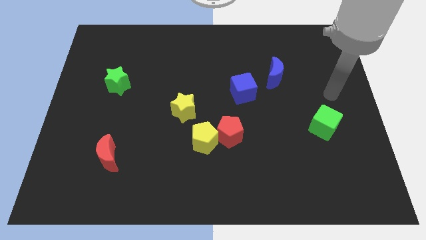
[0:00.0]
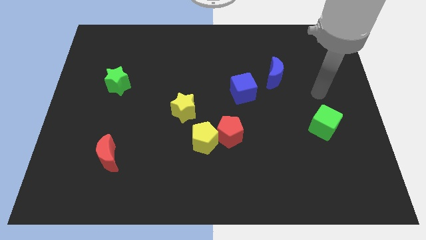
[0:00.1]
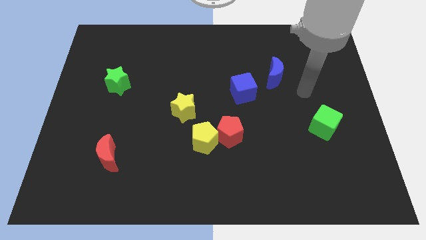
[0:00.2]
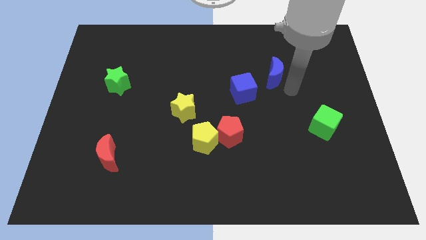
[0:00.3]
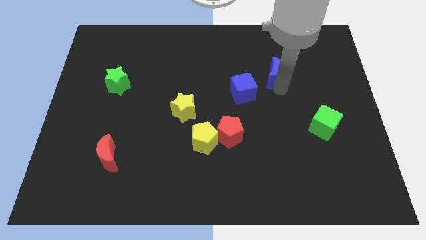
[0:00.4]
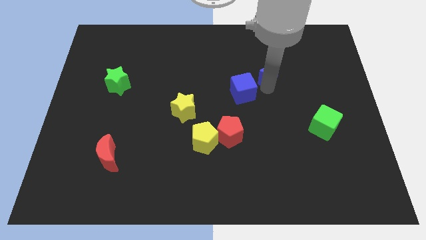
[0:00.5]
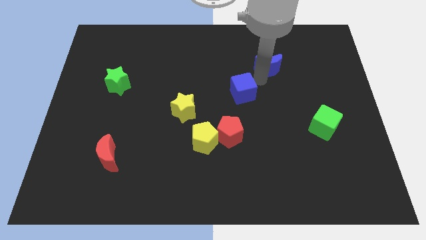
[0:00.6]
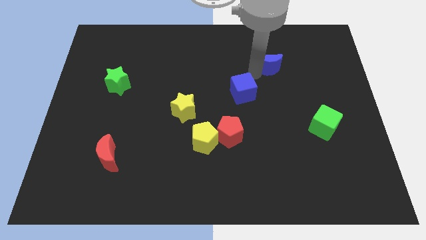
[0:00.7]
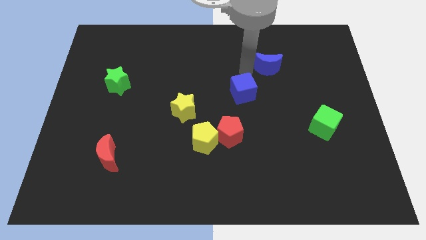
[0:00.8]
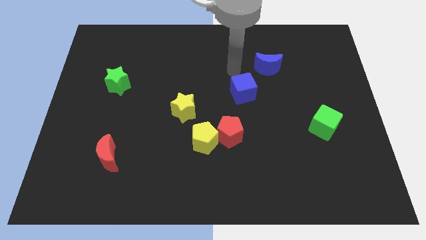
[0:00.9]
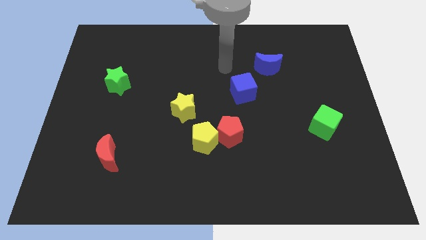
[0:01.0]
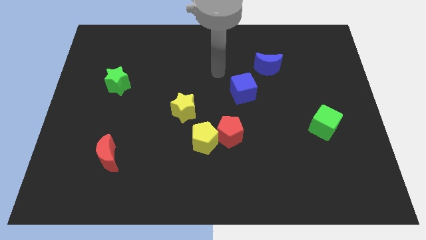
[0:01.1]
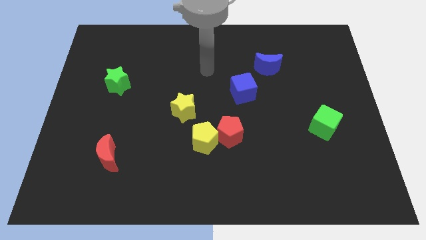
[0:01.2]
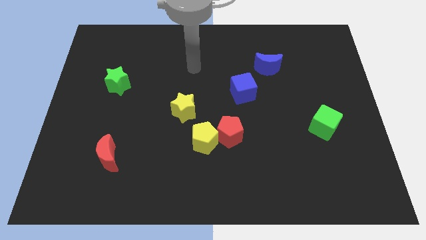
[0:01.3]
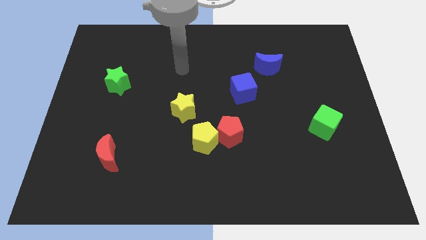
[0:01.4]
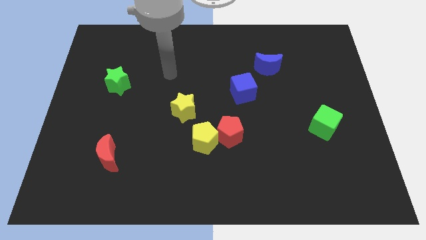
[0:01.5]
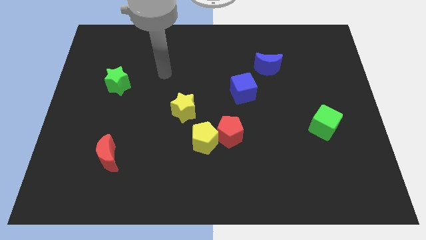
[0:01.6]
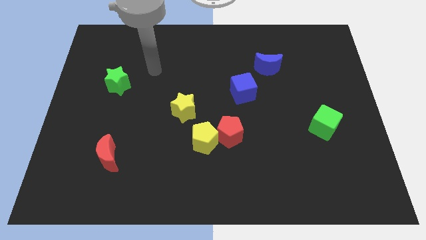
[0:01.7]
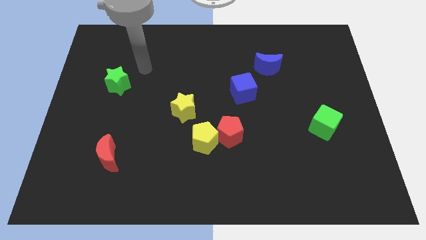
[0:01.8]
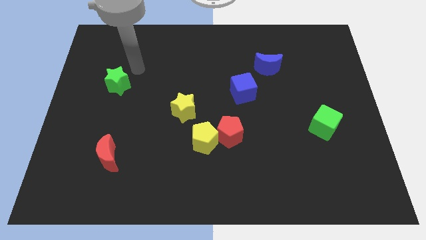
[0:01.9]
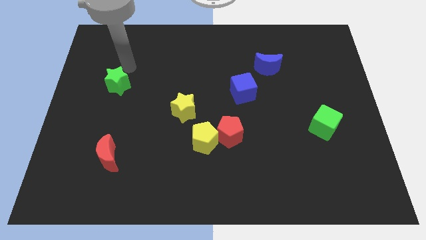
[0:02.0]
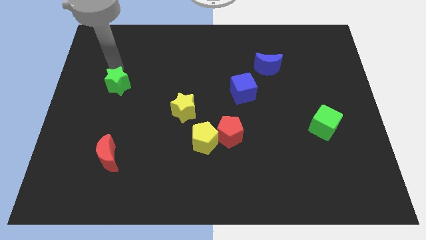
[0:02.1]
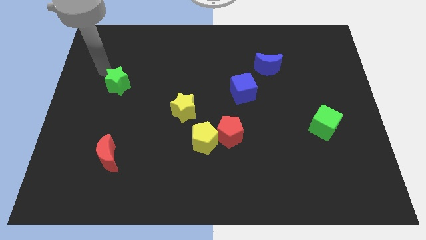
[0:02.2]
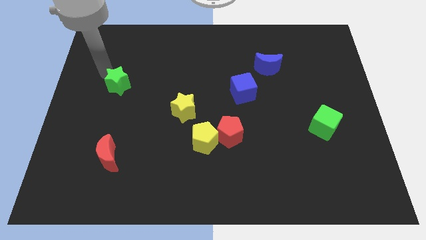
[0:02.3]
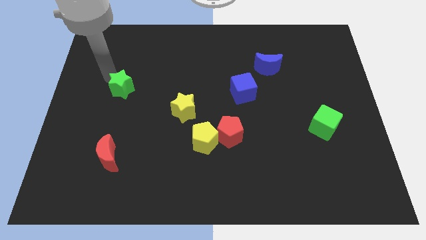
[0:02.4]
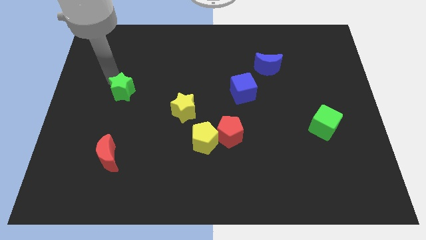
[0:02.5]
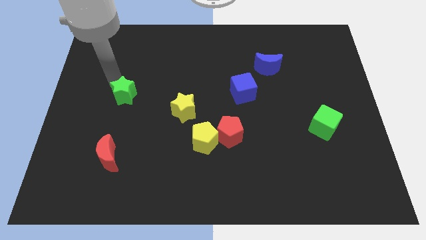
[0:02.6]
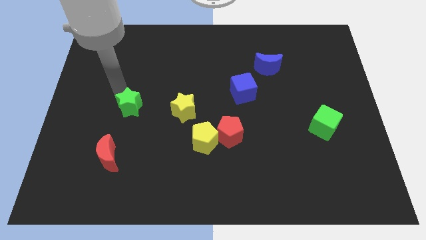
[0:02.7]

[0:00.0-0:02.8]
slightly move the green star down and to the right diagonally

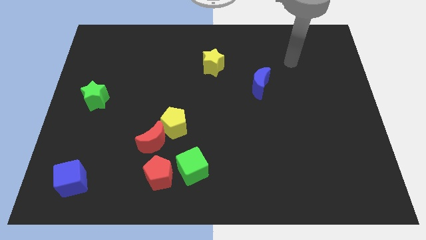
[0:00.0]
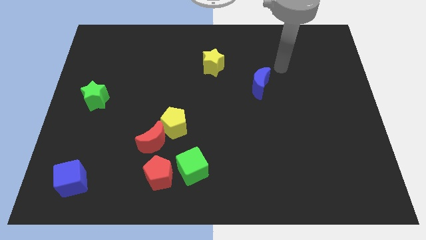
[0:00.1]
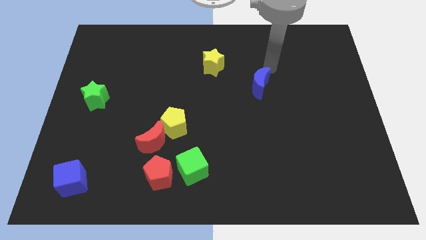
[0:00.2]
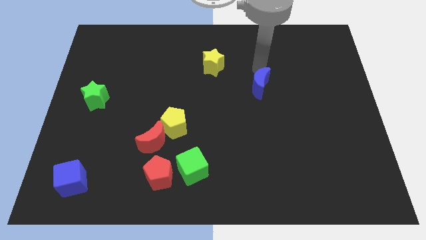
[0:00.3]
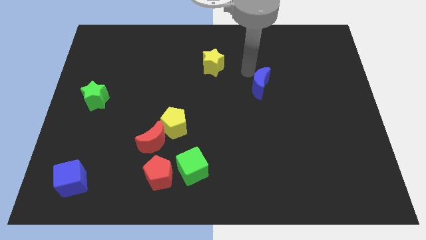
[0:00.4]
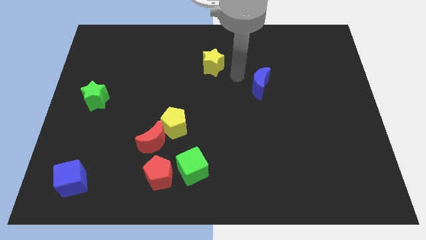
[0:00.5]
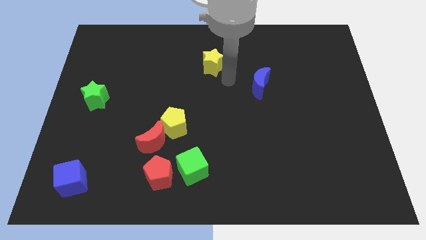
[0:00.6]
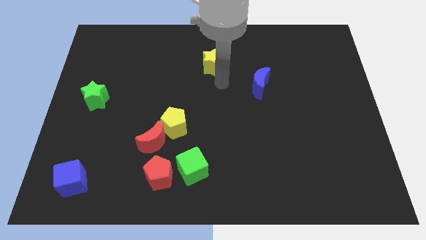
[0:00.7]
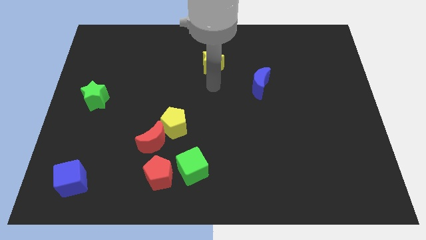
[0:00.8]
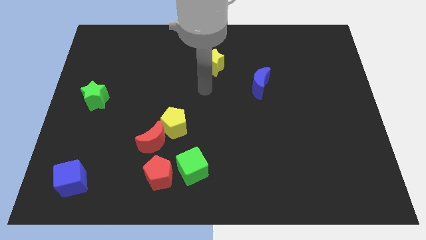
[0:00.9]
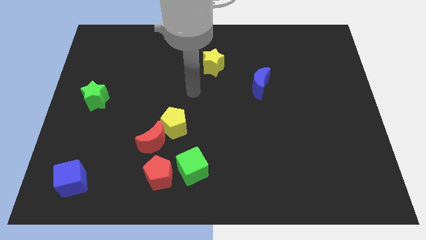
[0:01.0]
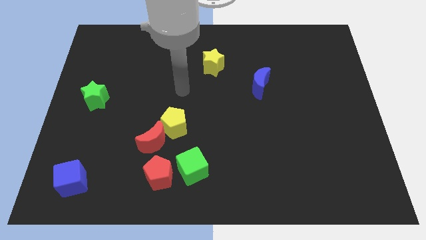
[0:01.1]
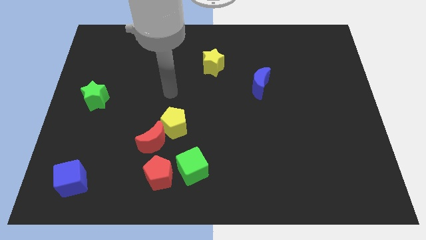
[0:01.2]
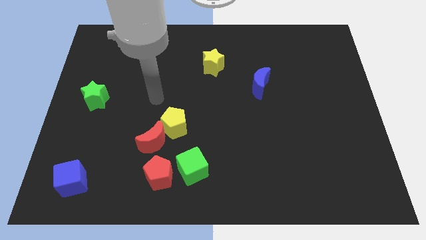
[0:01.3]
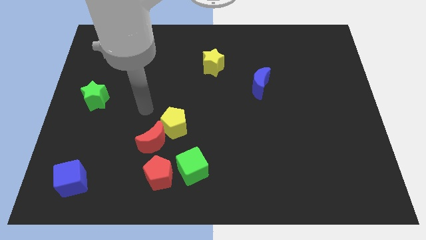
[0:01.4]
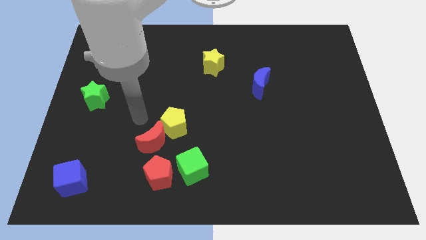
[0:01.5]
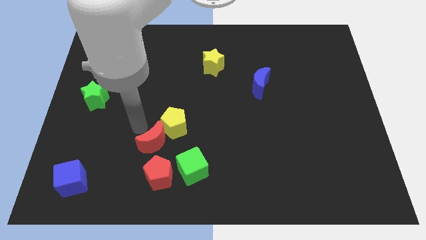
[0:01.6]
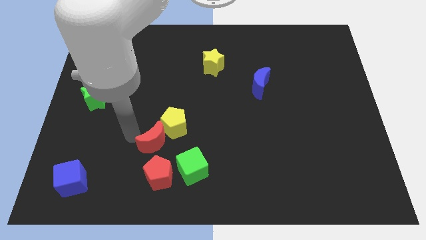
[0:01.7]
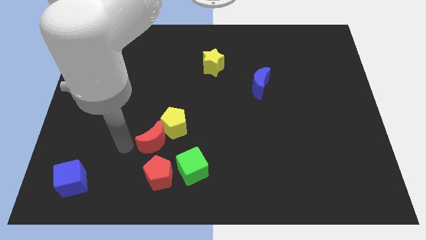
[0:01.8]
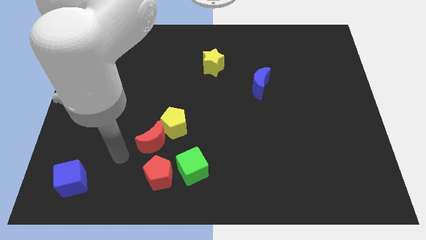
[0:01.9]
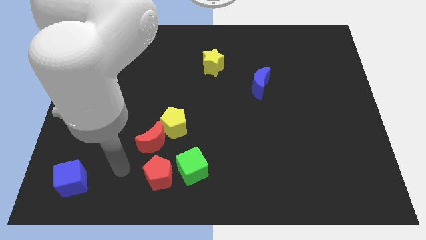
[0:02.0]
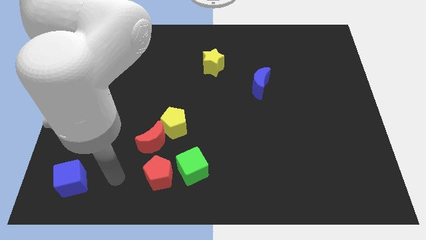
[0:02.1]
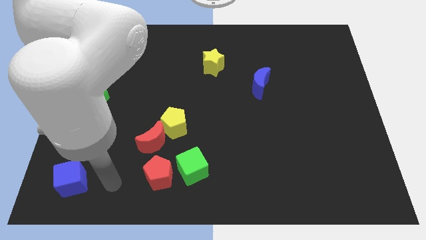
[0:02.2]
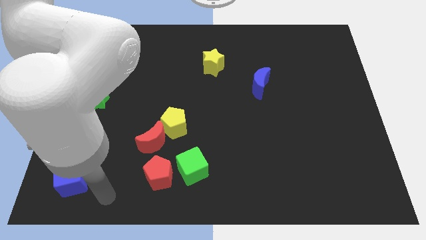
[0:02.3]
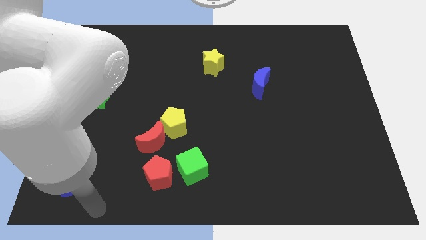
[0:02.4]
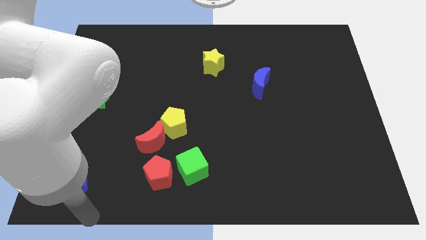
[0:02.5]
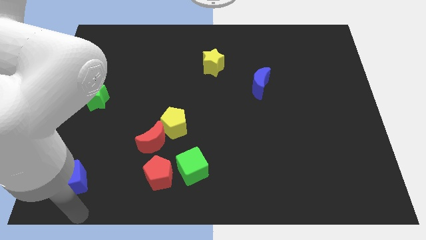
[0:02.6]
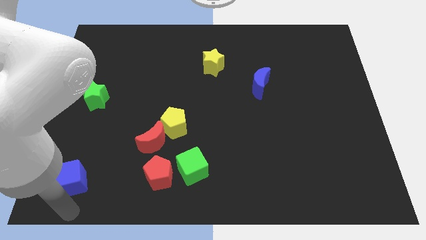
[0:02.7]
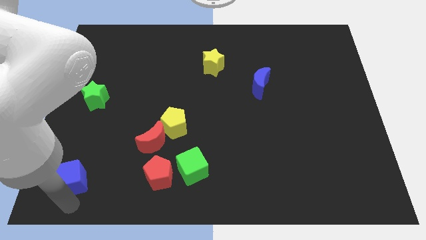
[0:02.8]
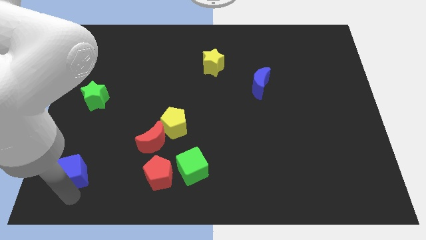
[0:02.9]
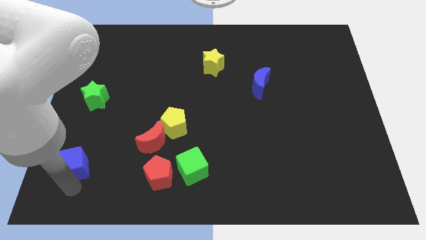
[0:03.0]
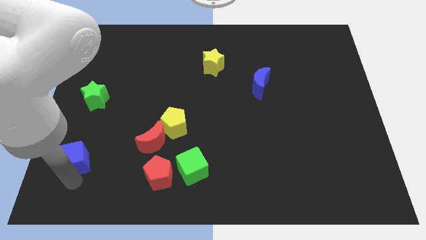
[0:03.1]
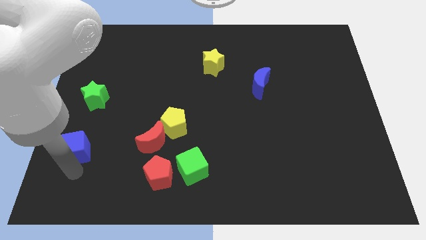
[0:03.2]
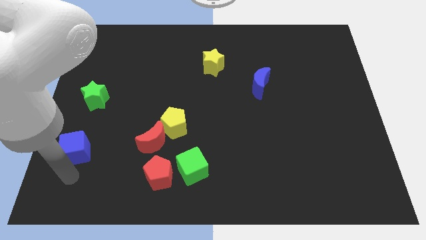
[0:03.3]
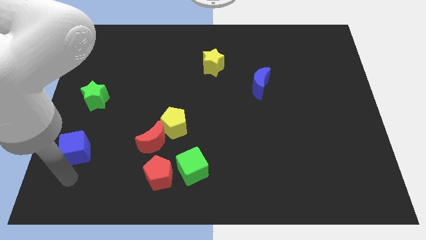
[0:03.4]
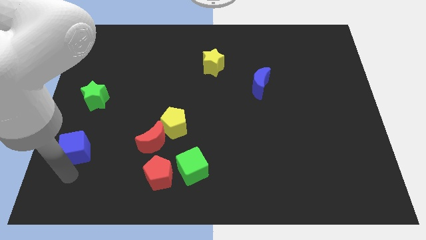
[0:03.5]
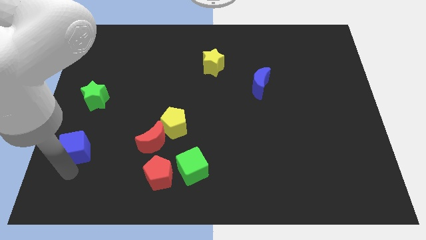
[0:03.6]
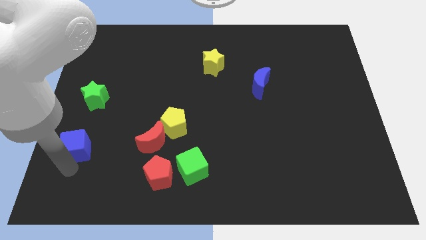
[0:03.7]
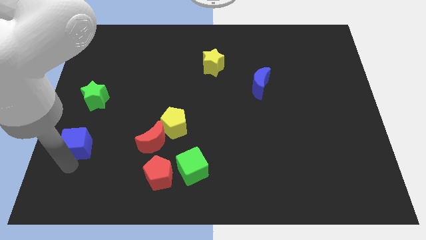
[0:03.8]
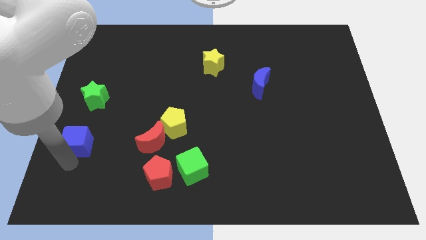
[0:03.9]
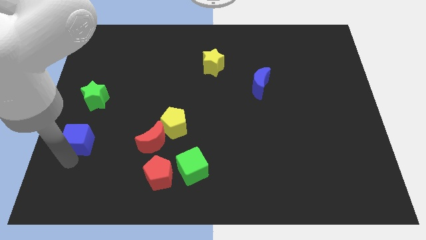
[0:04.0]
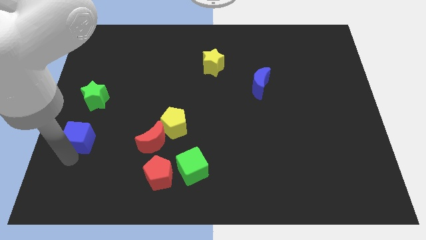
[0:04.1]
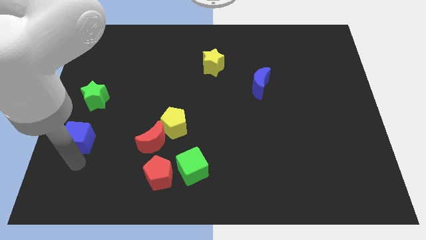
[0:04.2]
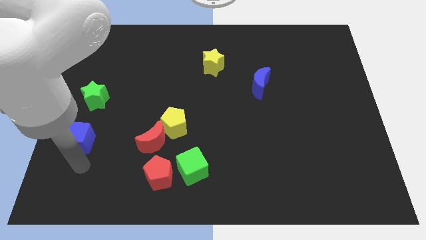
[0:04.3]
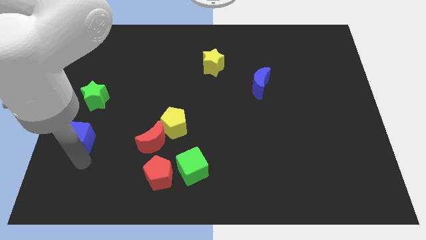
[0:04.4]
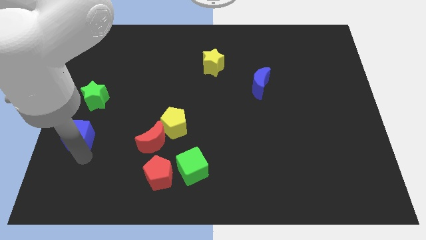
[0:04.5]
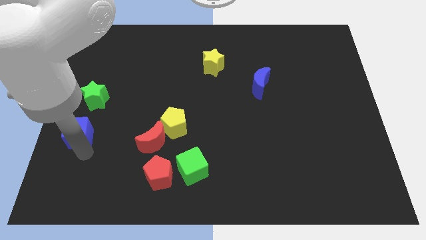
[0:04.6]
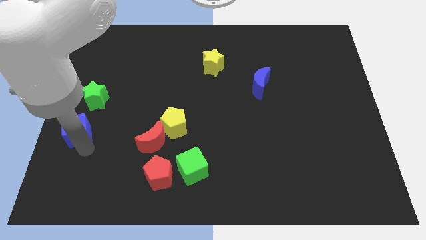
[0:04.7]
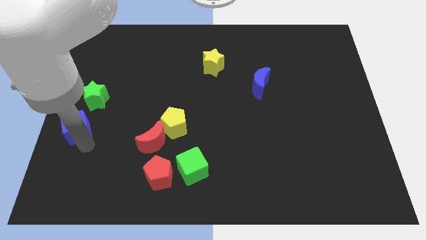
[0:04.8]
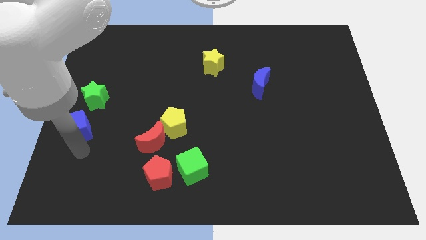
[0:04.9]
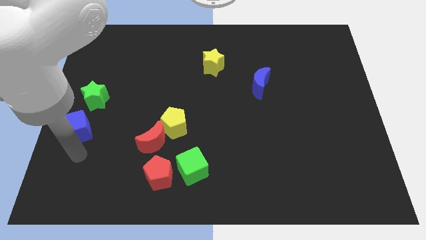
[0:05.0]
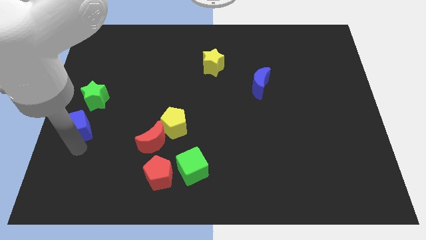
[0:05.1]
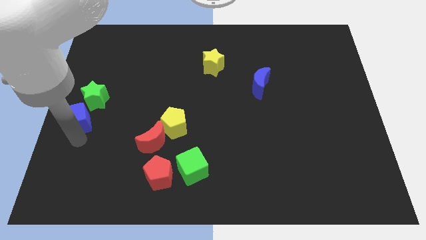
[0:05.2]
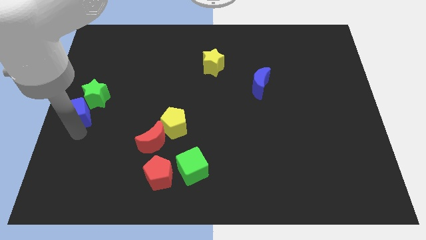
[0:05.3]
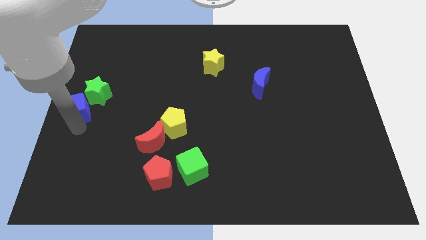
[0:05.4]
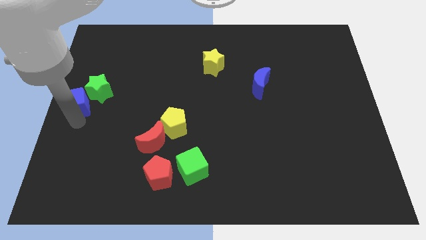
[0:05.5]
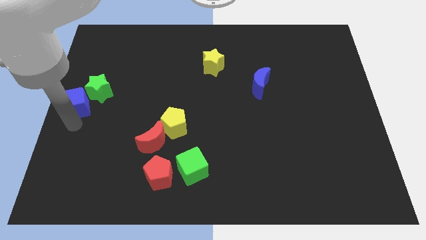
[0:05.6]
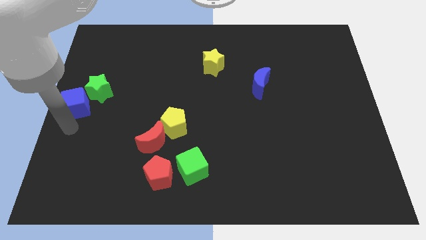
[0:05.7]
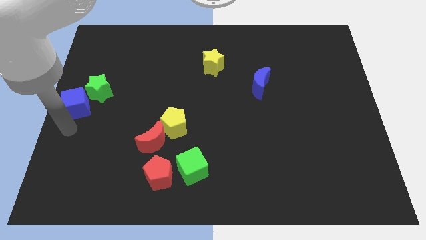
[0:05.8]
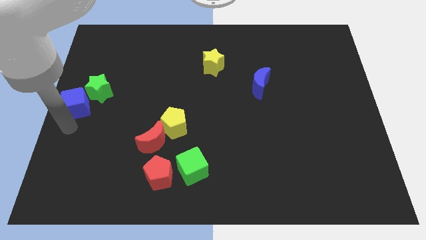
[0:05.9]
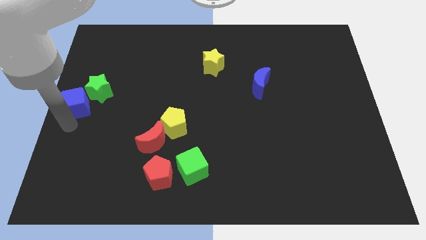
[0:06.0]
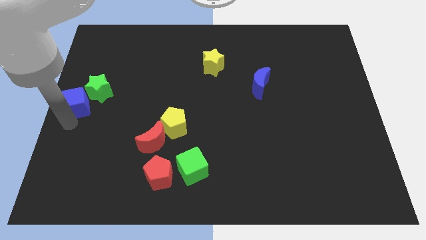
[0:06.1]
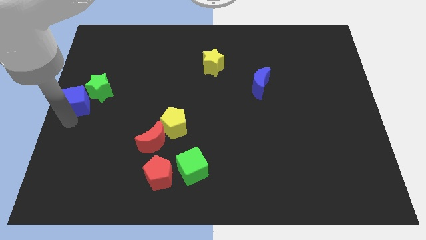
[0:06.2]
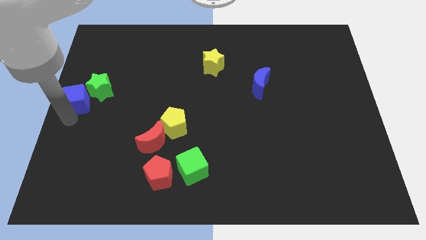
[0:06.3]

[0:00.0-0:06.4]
slide the blue cube up
